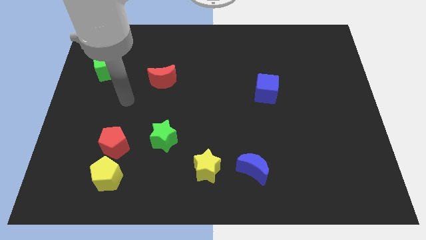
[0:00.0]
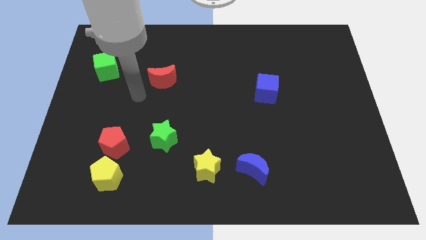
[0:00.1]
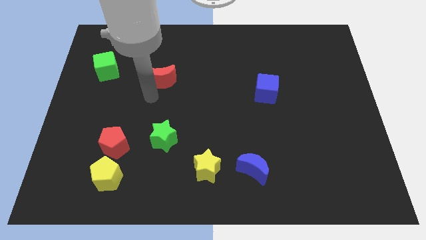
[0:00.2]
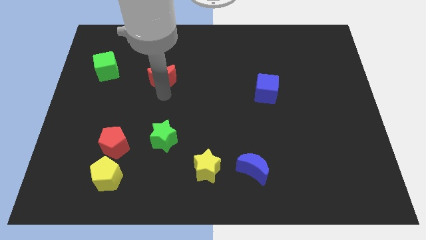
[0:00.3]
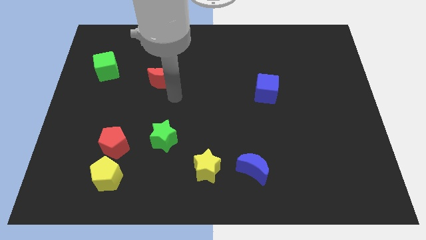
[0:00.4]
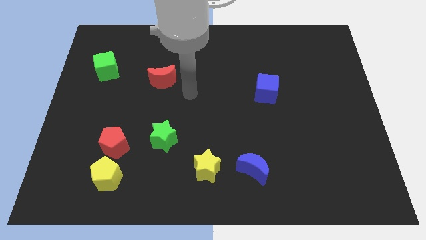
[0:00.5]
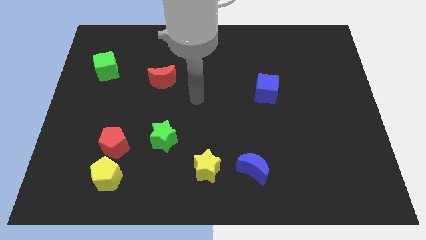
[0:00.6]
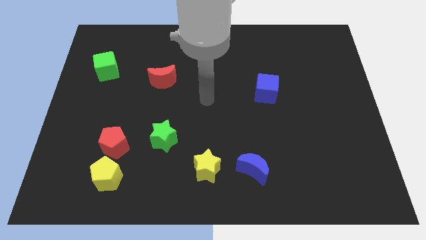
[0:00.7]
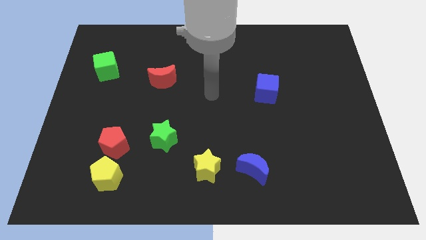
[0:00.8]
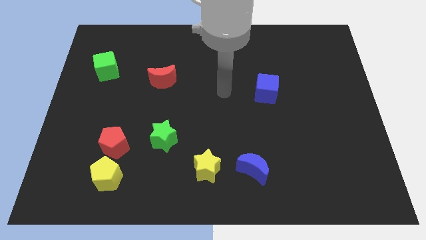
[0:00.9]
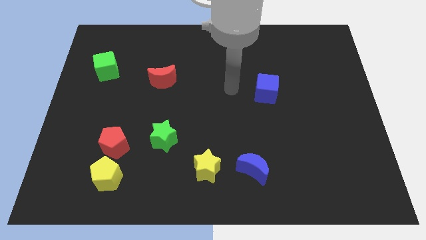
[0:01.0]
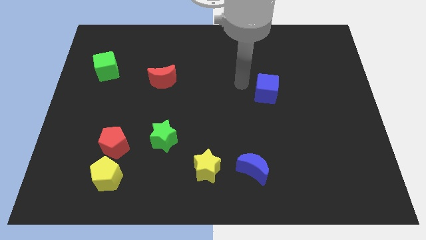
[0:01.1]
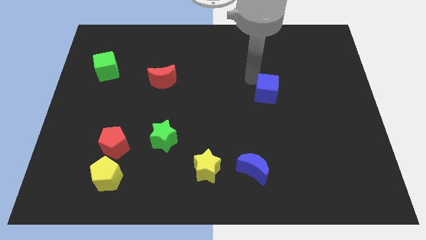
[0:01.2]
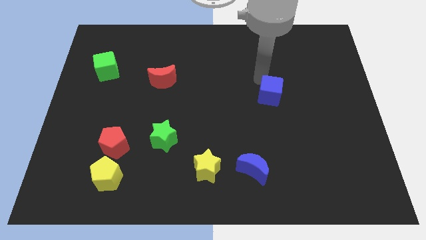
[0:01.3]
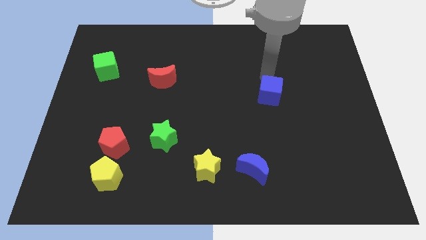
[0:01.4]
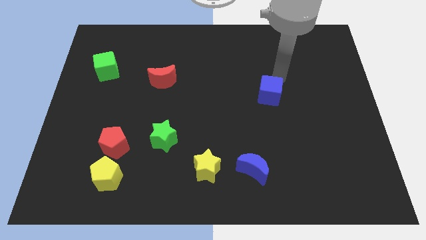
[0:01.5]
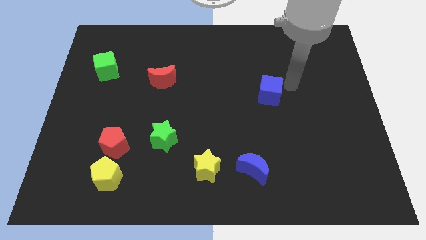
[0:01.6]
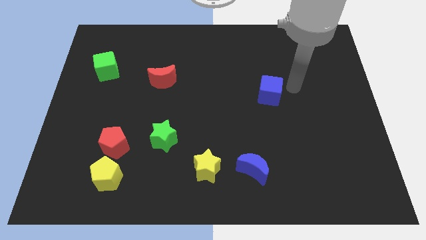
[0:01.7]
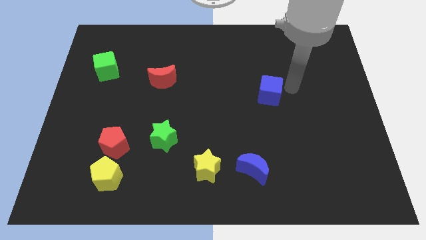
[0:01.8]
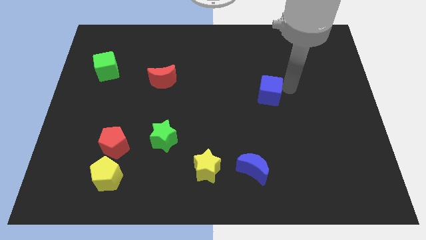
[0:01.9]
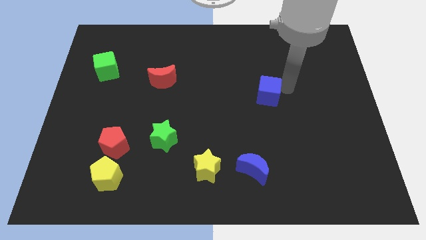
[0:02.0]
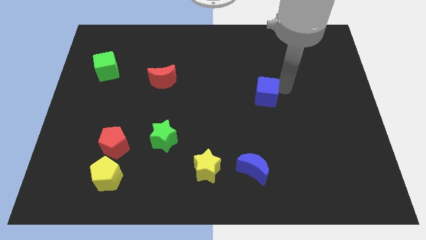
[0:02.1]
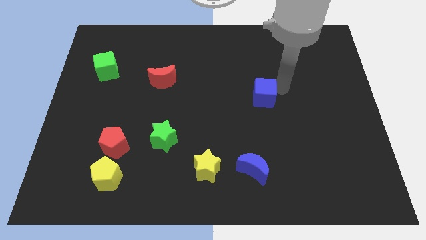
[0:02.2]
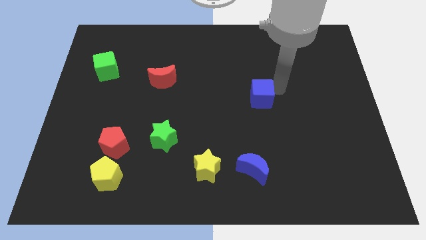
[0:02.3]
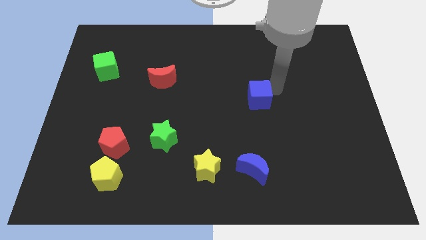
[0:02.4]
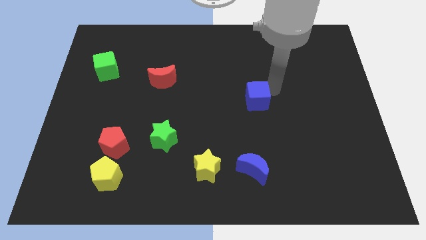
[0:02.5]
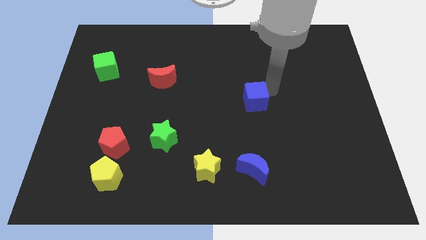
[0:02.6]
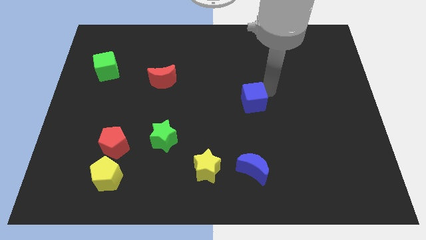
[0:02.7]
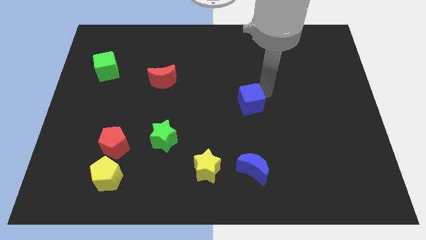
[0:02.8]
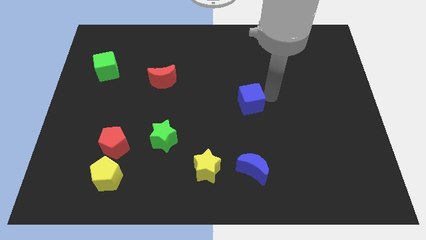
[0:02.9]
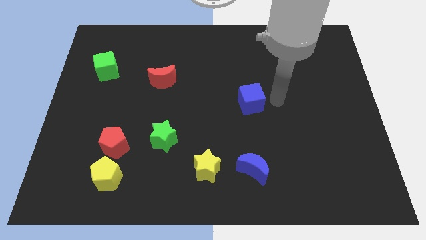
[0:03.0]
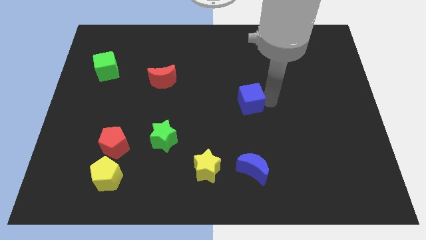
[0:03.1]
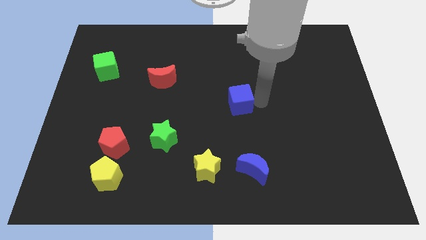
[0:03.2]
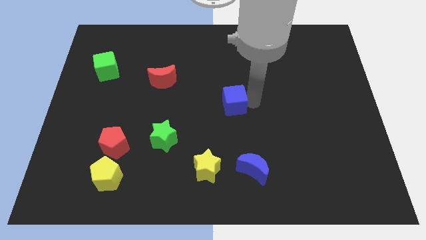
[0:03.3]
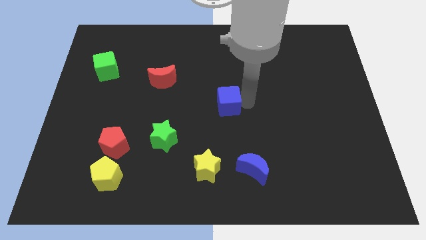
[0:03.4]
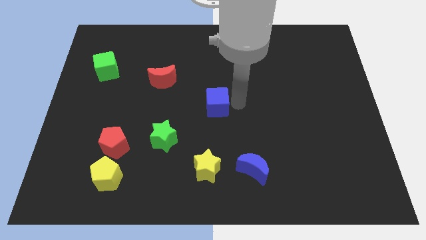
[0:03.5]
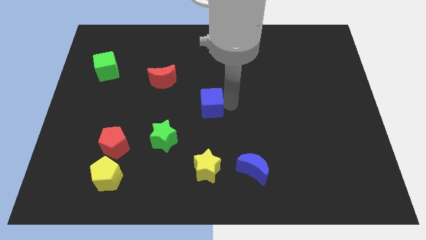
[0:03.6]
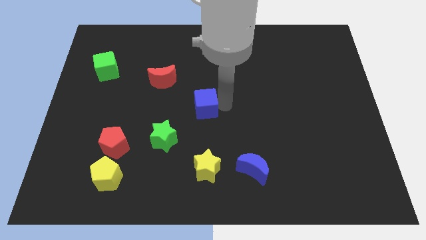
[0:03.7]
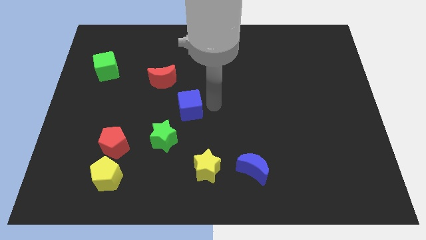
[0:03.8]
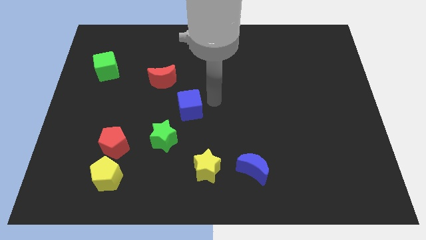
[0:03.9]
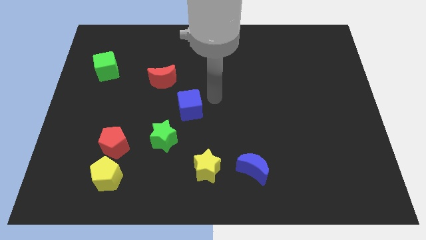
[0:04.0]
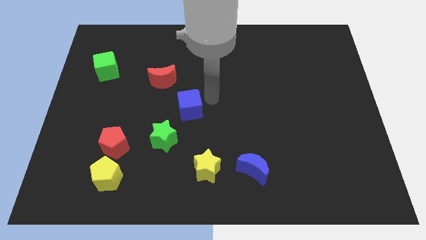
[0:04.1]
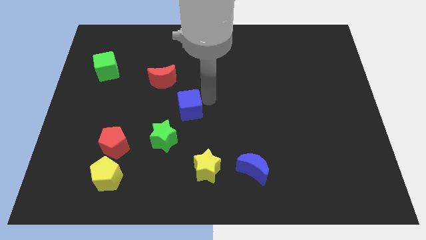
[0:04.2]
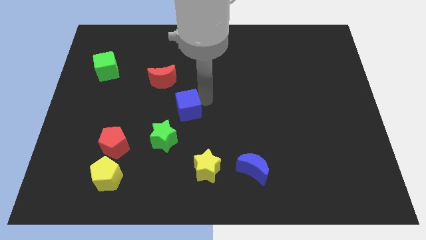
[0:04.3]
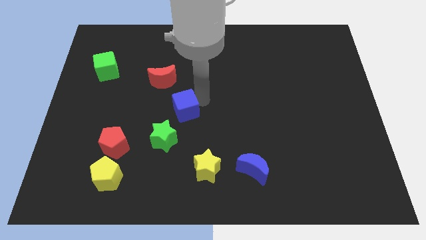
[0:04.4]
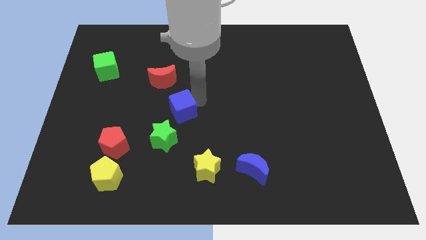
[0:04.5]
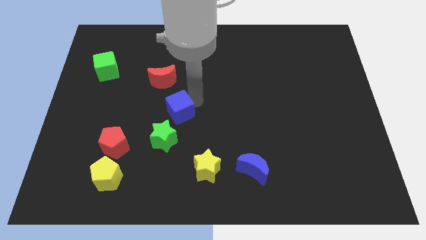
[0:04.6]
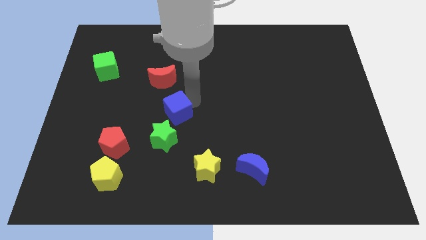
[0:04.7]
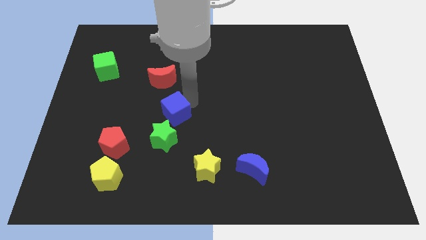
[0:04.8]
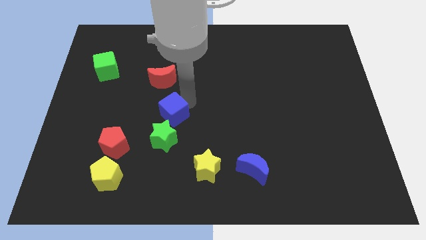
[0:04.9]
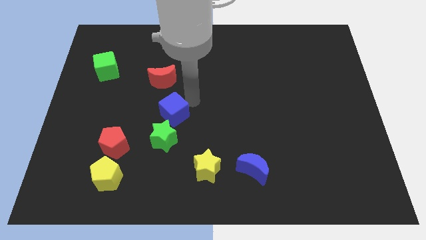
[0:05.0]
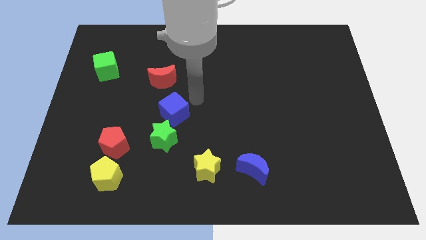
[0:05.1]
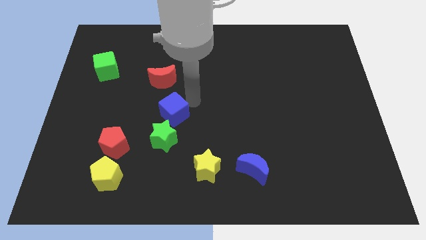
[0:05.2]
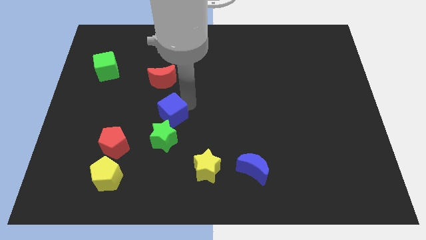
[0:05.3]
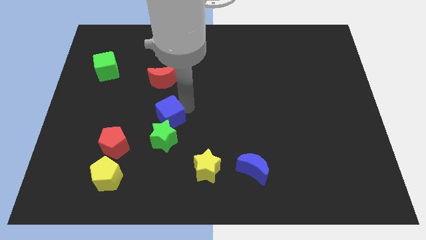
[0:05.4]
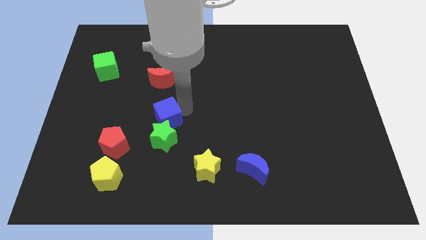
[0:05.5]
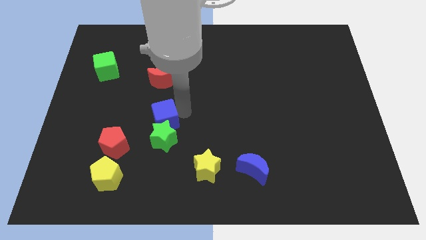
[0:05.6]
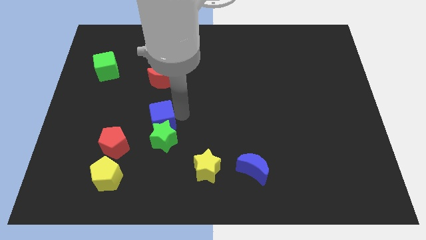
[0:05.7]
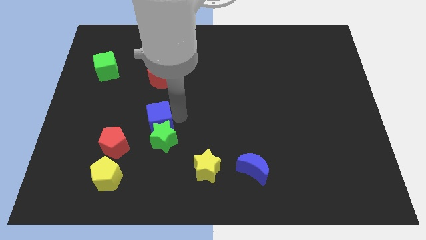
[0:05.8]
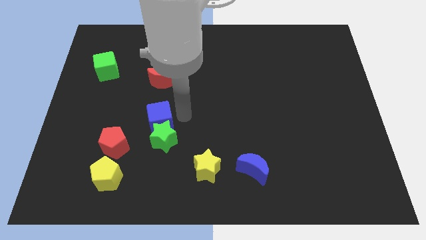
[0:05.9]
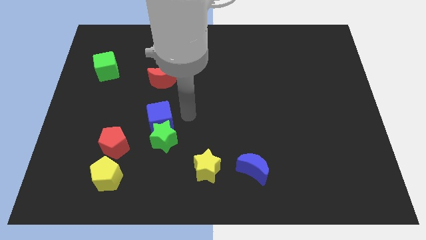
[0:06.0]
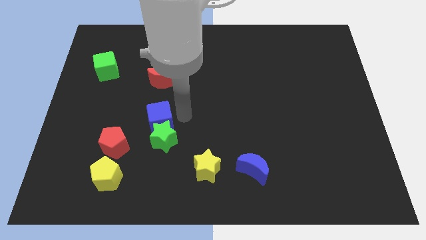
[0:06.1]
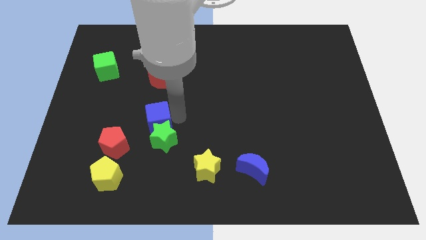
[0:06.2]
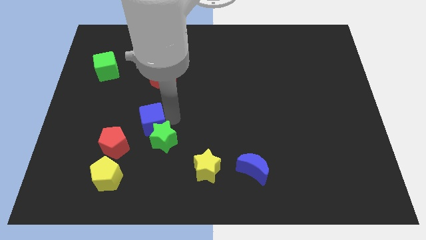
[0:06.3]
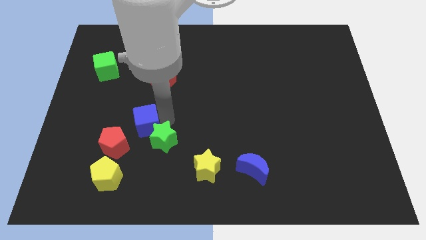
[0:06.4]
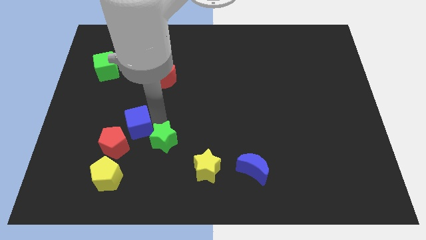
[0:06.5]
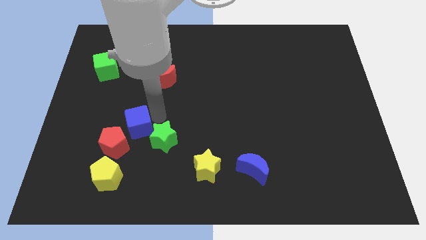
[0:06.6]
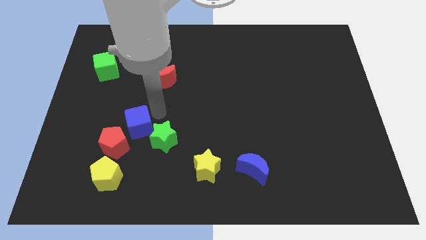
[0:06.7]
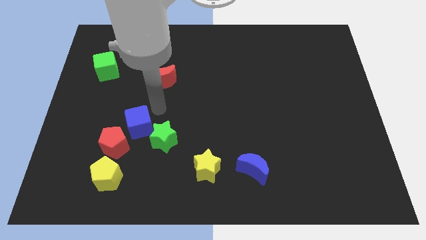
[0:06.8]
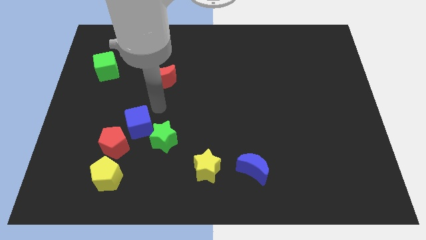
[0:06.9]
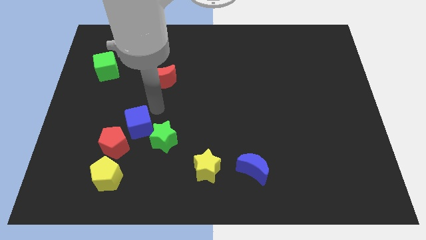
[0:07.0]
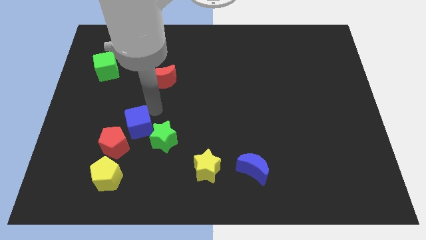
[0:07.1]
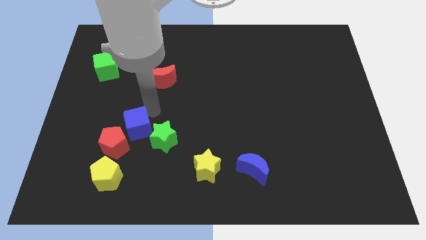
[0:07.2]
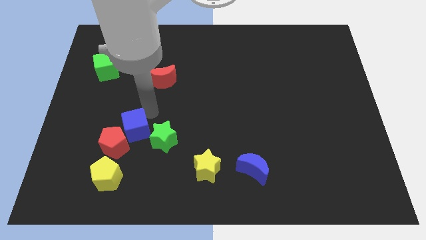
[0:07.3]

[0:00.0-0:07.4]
put the blue cube next to the red pentagon
